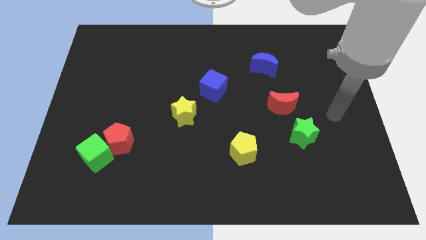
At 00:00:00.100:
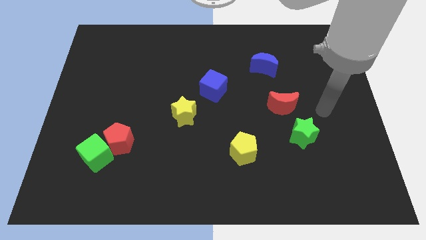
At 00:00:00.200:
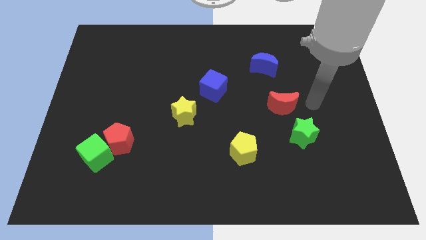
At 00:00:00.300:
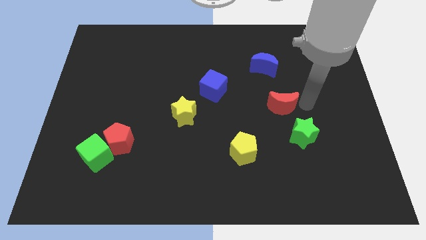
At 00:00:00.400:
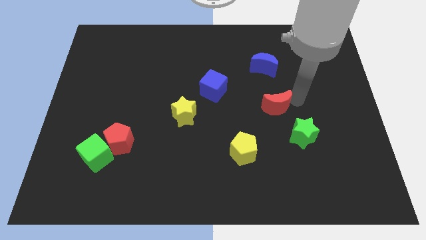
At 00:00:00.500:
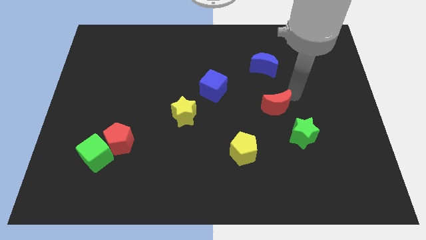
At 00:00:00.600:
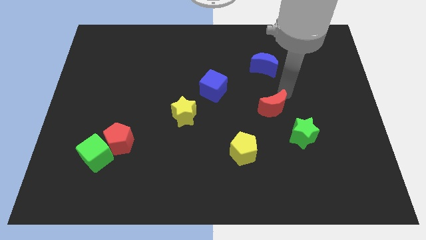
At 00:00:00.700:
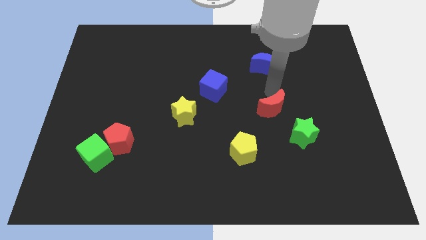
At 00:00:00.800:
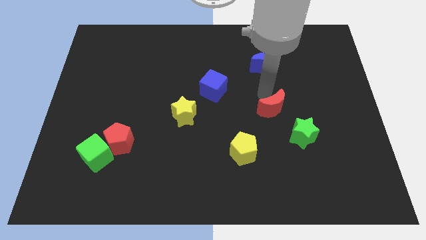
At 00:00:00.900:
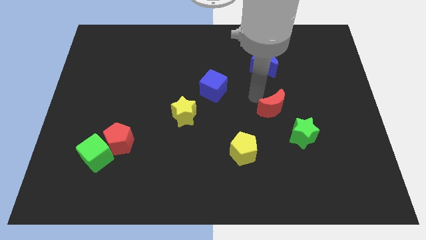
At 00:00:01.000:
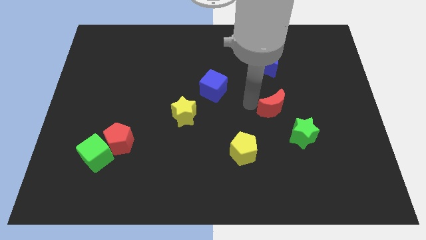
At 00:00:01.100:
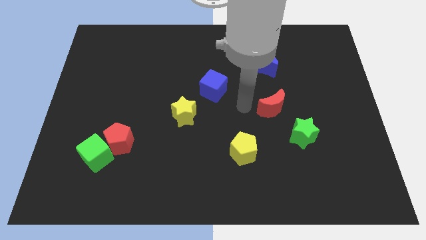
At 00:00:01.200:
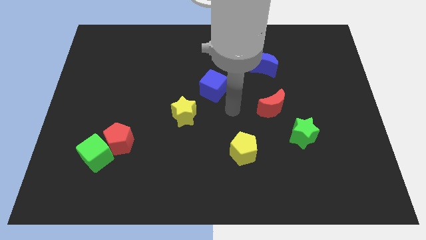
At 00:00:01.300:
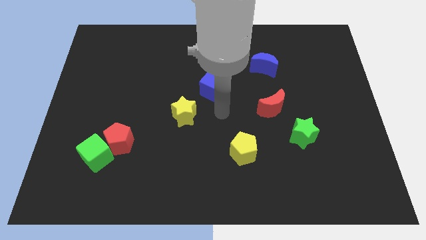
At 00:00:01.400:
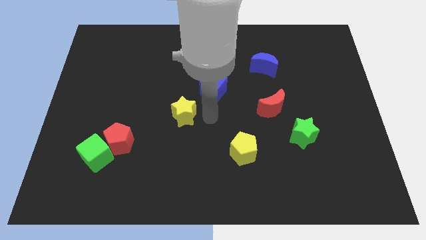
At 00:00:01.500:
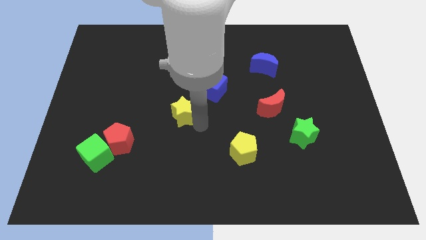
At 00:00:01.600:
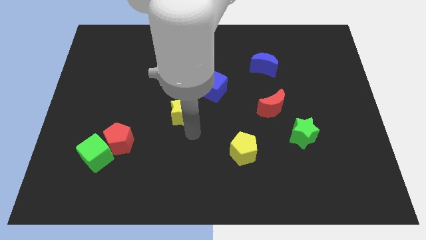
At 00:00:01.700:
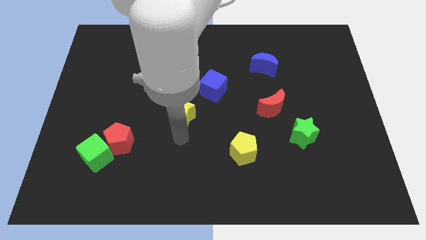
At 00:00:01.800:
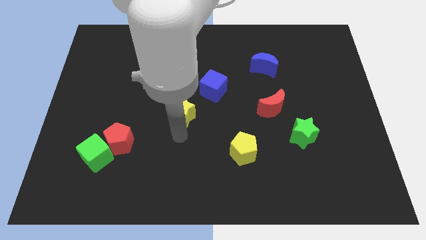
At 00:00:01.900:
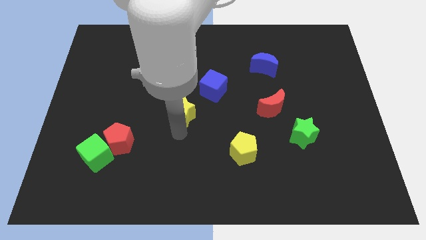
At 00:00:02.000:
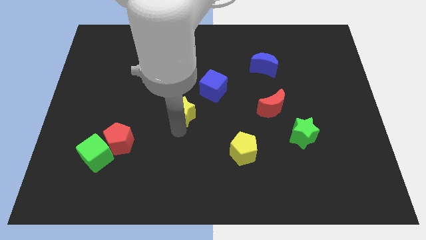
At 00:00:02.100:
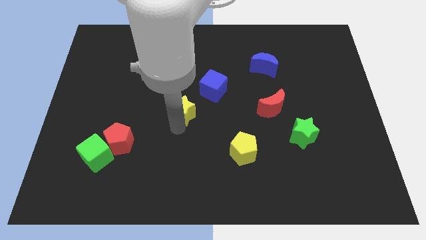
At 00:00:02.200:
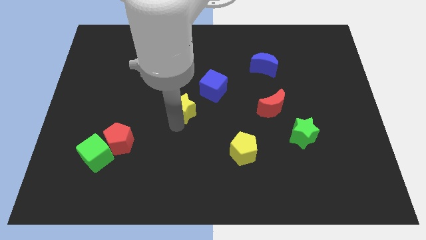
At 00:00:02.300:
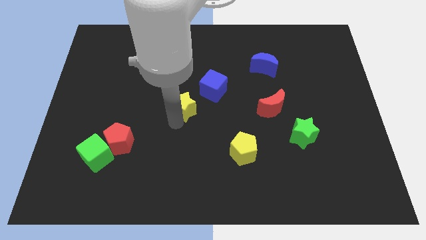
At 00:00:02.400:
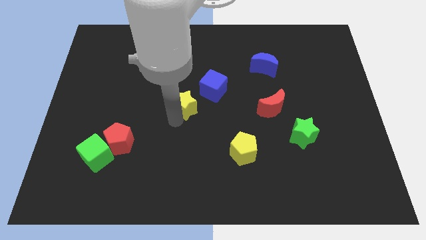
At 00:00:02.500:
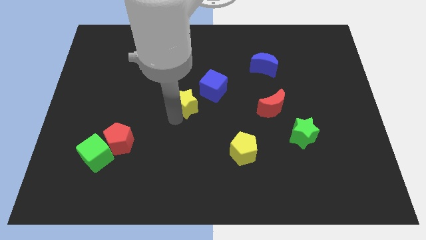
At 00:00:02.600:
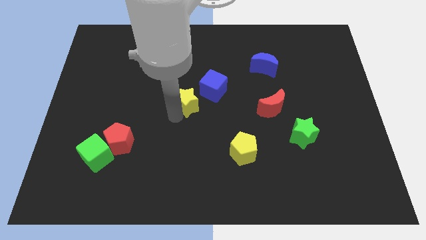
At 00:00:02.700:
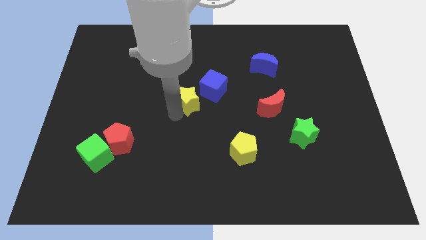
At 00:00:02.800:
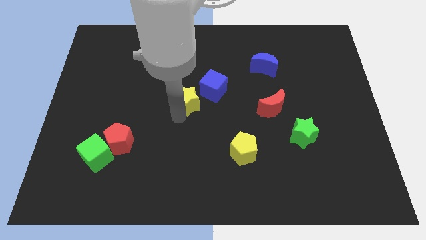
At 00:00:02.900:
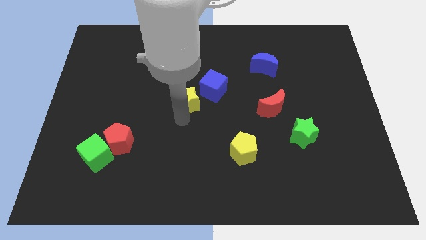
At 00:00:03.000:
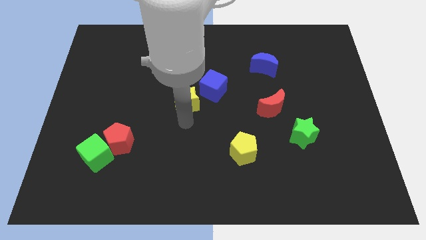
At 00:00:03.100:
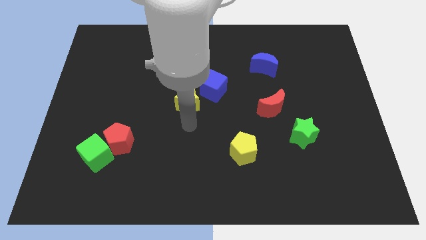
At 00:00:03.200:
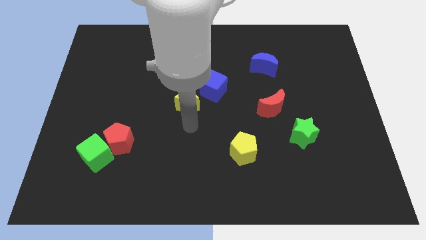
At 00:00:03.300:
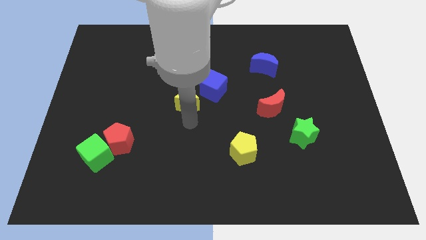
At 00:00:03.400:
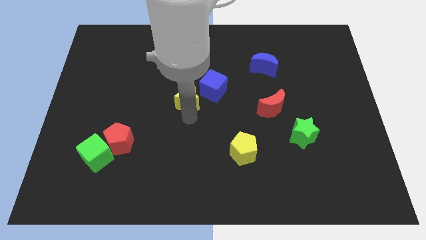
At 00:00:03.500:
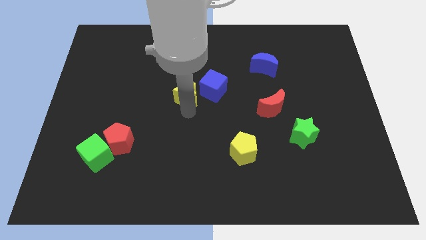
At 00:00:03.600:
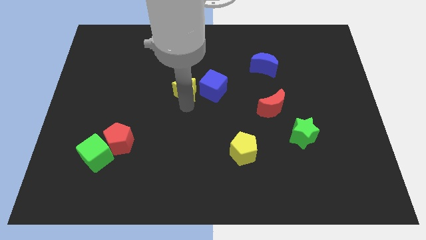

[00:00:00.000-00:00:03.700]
slightly move the yellow star upwards

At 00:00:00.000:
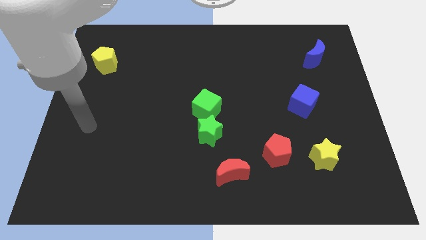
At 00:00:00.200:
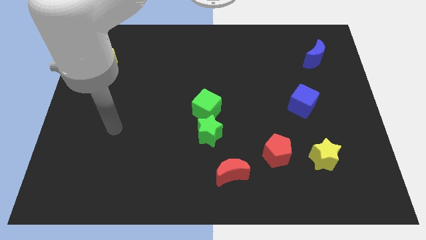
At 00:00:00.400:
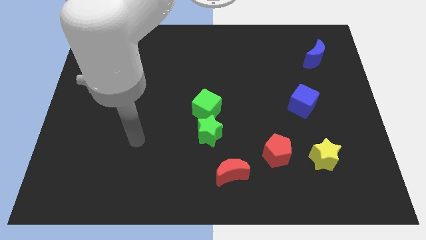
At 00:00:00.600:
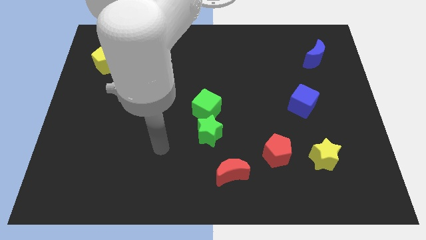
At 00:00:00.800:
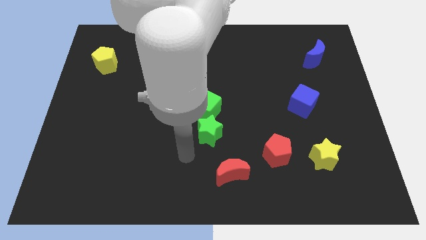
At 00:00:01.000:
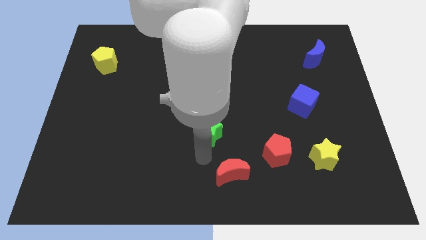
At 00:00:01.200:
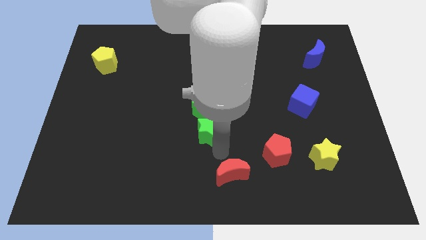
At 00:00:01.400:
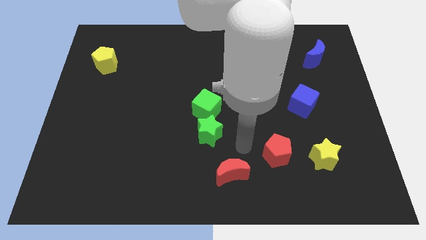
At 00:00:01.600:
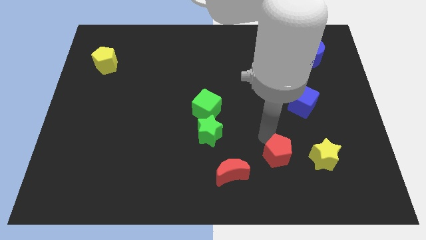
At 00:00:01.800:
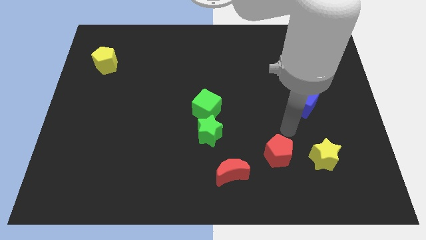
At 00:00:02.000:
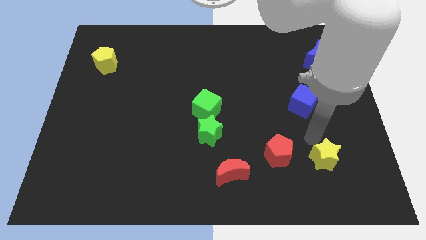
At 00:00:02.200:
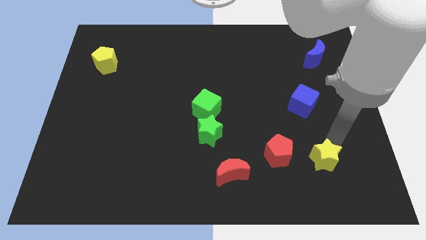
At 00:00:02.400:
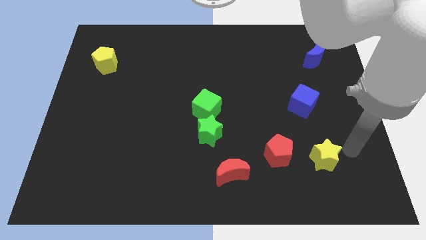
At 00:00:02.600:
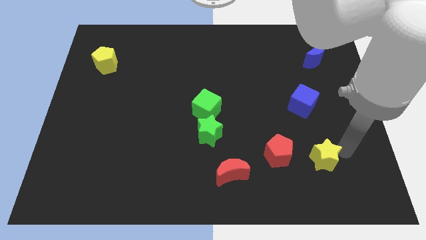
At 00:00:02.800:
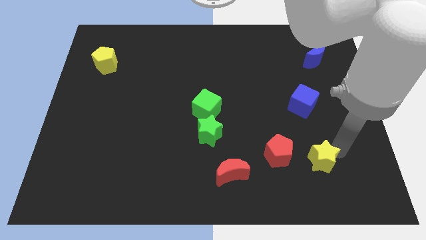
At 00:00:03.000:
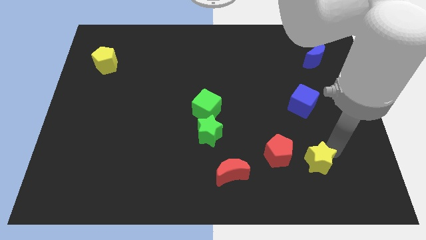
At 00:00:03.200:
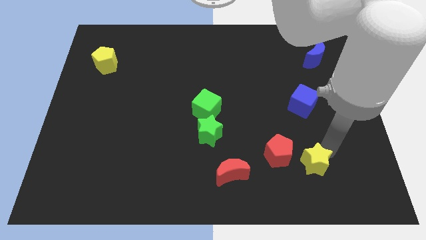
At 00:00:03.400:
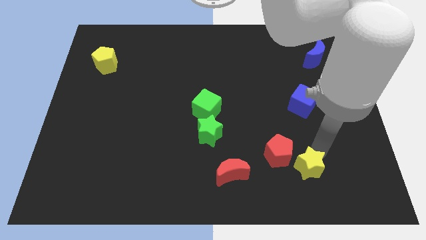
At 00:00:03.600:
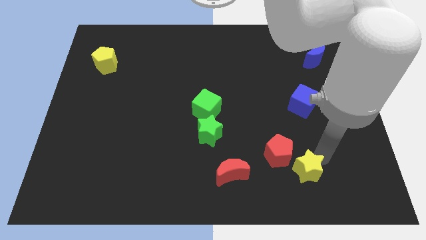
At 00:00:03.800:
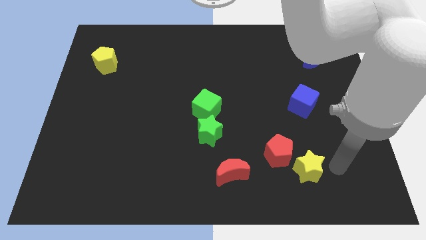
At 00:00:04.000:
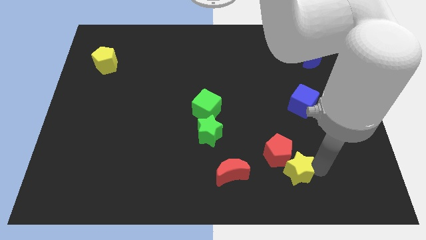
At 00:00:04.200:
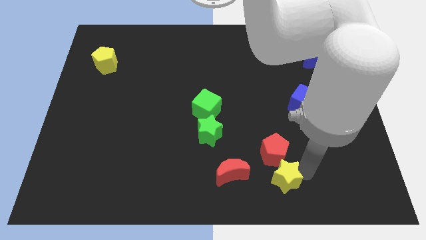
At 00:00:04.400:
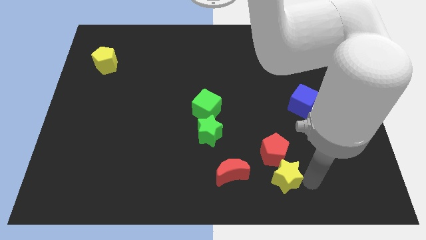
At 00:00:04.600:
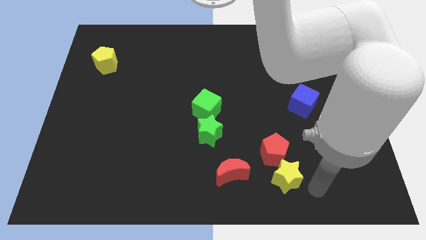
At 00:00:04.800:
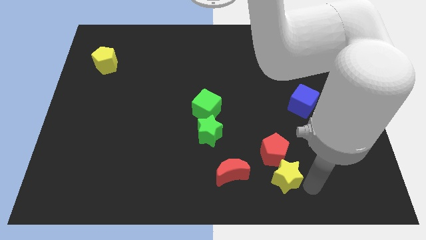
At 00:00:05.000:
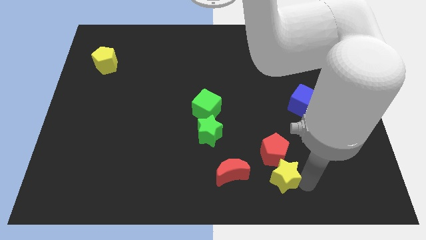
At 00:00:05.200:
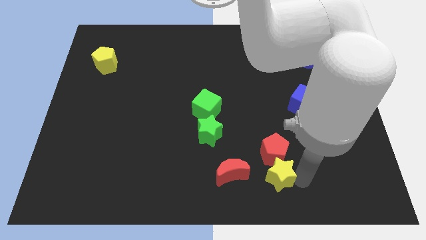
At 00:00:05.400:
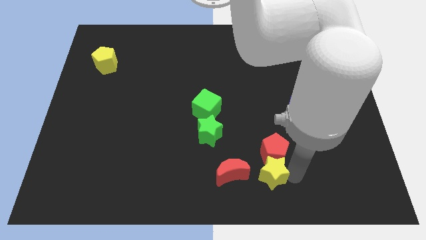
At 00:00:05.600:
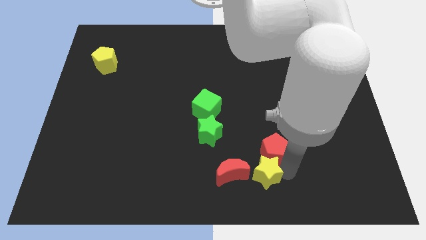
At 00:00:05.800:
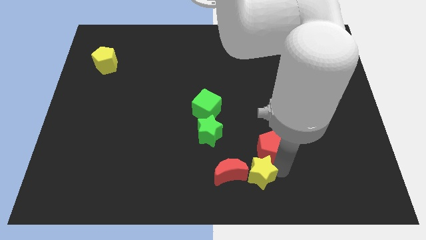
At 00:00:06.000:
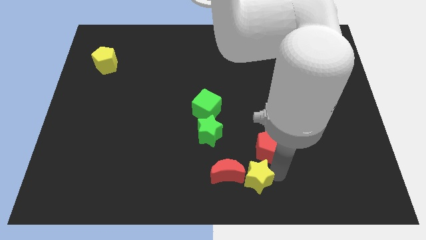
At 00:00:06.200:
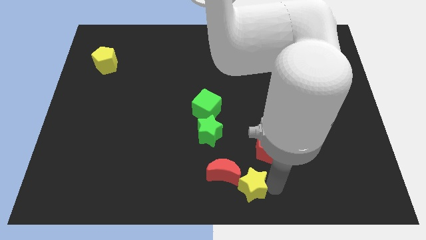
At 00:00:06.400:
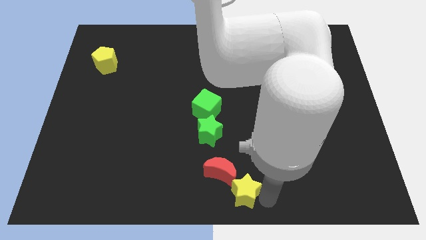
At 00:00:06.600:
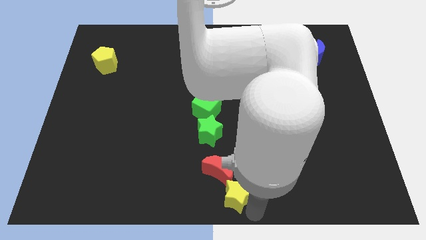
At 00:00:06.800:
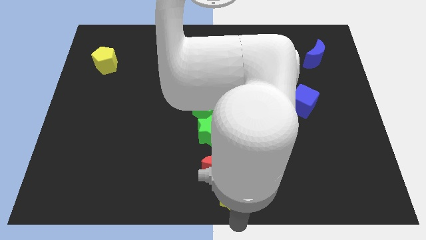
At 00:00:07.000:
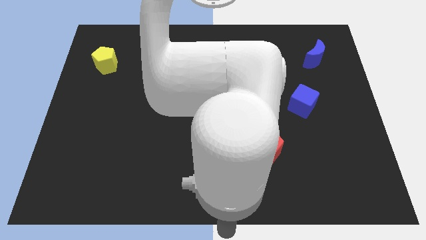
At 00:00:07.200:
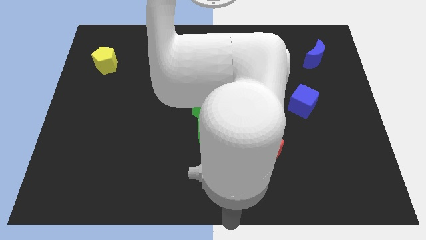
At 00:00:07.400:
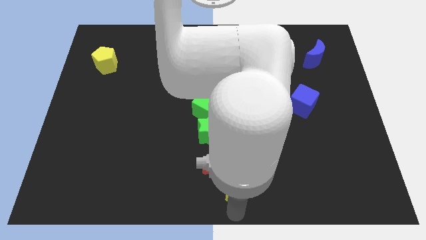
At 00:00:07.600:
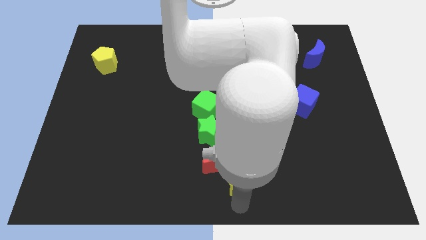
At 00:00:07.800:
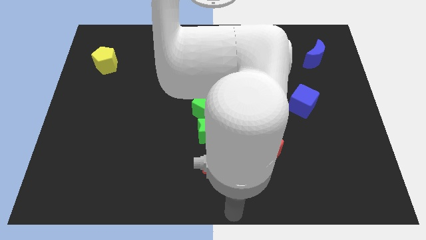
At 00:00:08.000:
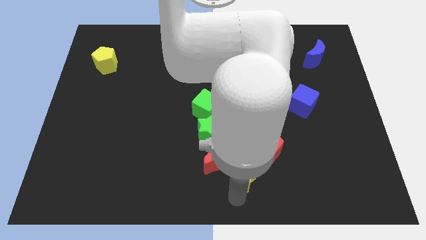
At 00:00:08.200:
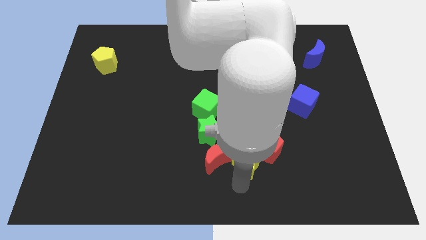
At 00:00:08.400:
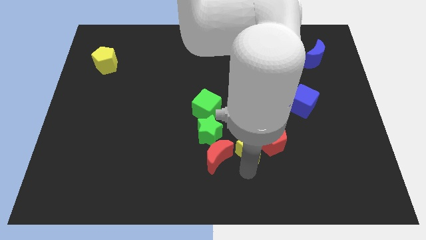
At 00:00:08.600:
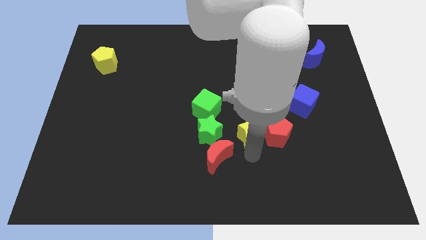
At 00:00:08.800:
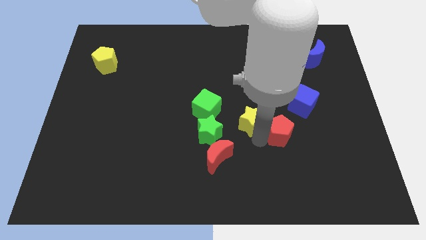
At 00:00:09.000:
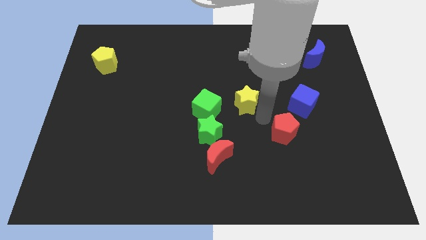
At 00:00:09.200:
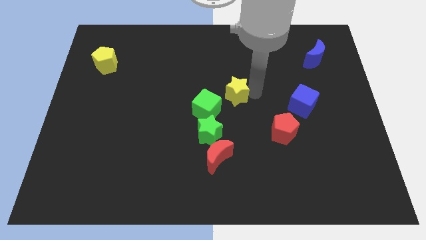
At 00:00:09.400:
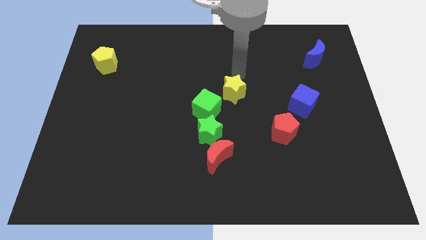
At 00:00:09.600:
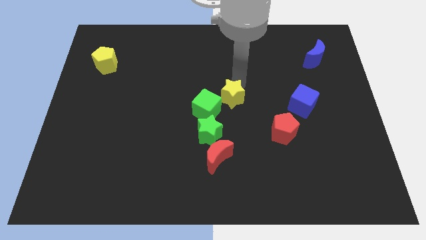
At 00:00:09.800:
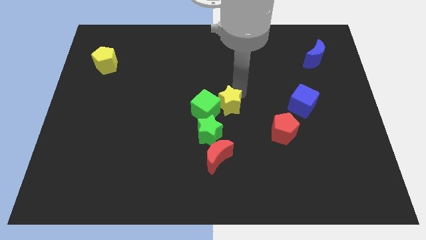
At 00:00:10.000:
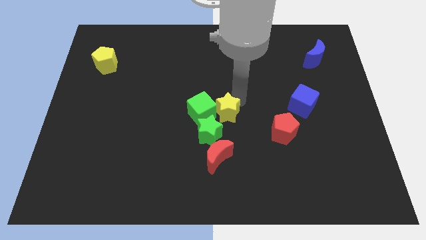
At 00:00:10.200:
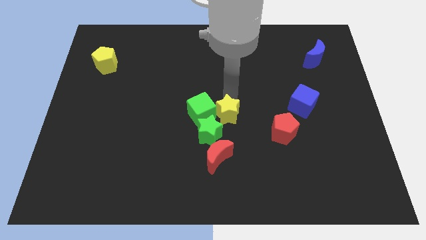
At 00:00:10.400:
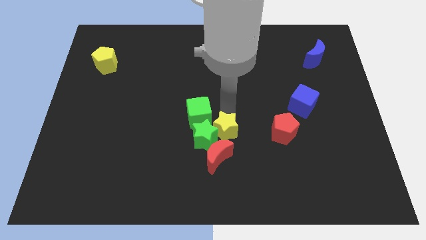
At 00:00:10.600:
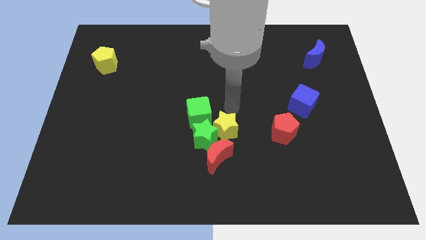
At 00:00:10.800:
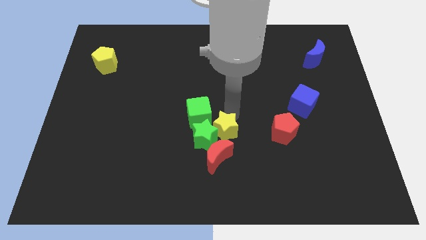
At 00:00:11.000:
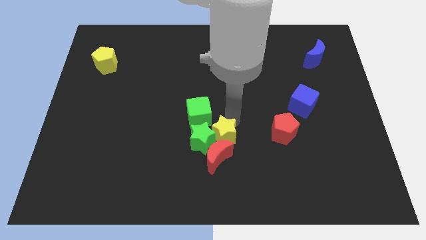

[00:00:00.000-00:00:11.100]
push the yellow star left
